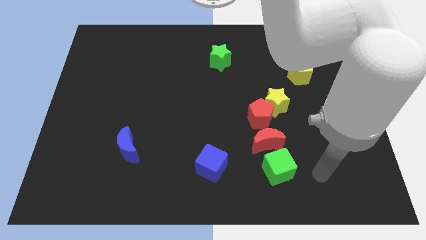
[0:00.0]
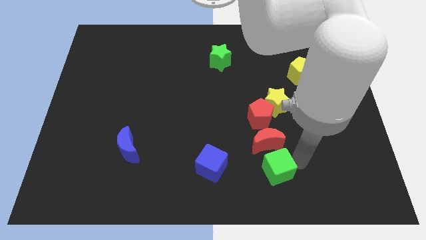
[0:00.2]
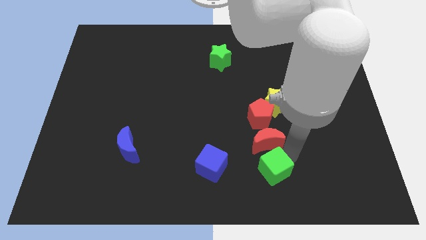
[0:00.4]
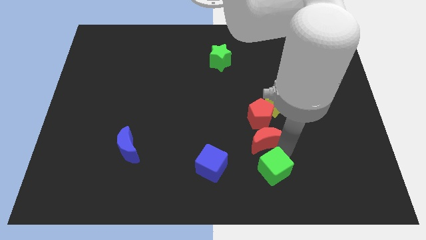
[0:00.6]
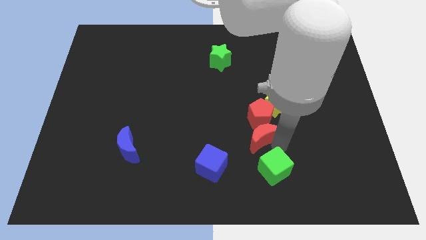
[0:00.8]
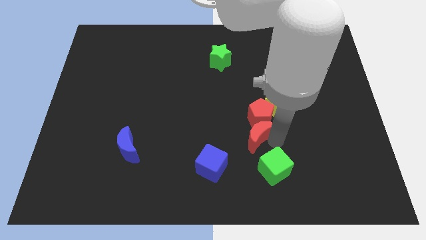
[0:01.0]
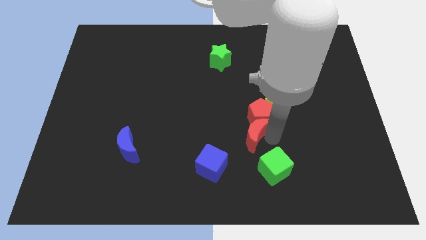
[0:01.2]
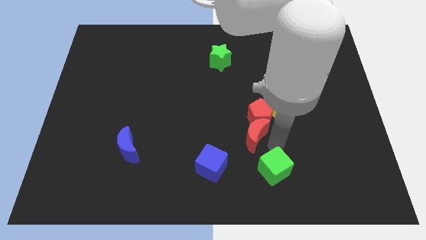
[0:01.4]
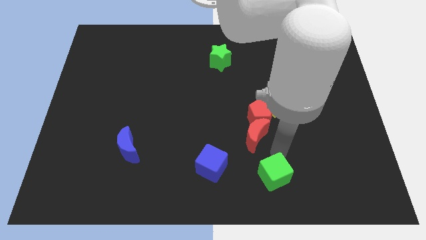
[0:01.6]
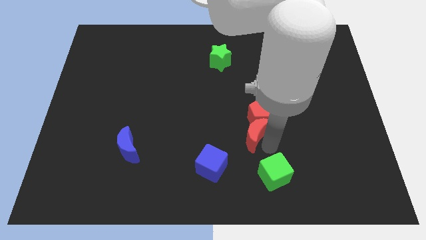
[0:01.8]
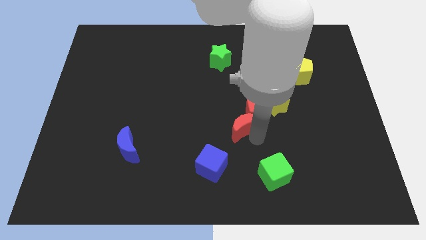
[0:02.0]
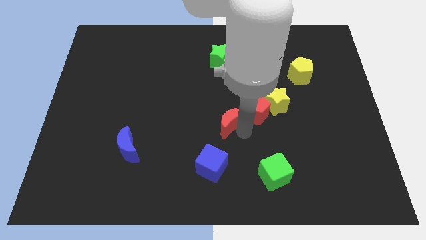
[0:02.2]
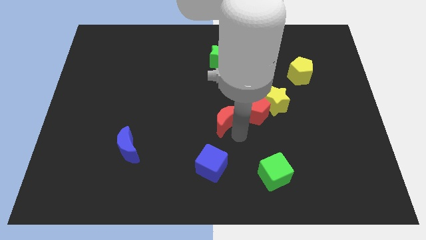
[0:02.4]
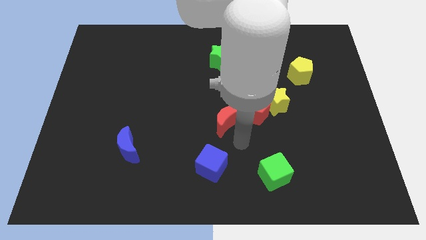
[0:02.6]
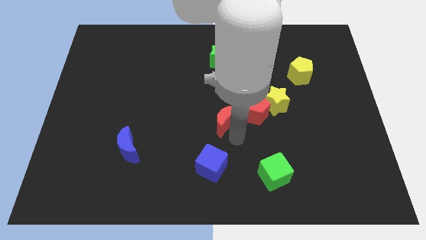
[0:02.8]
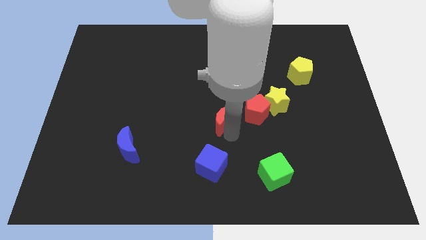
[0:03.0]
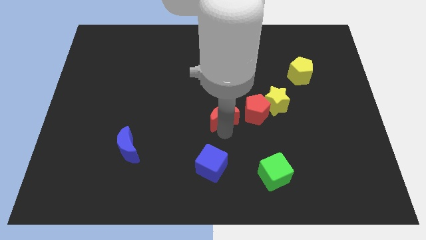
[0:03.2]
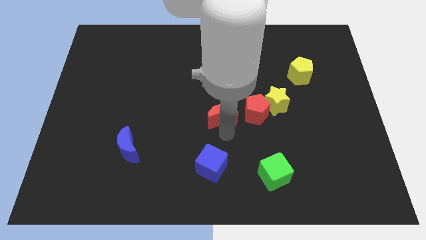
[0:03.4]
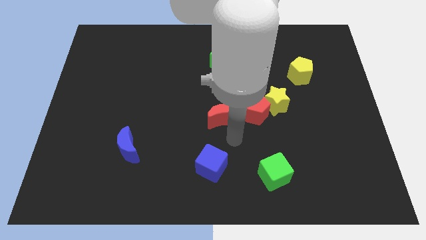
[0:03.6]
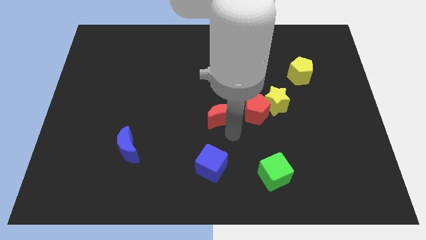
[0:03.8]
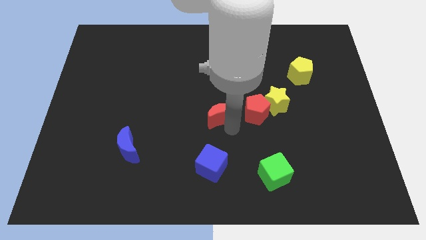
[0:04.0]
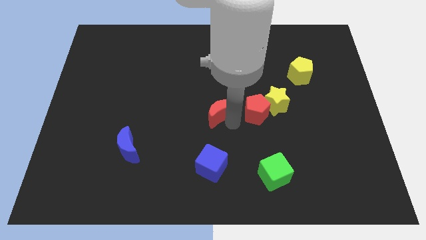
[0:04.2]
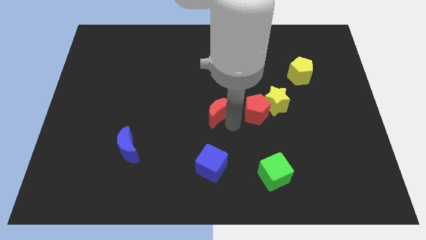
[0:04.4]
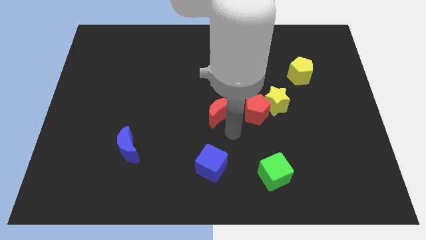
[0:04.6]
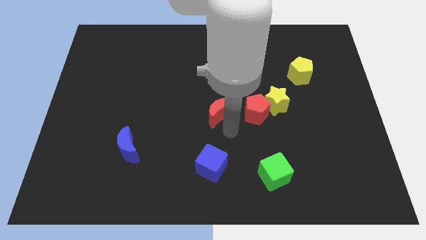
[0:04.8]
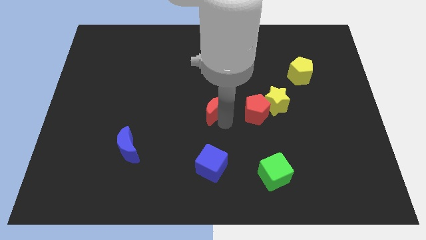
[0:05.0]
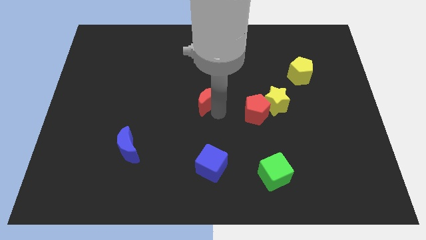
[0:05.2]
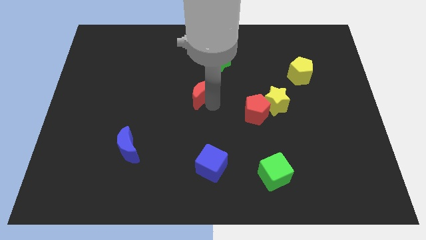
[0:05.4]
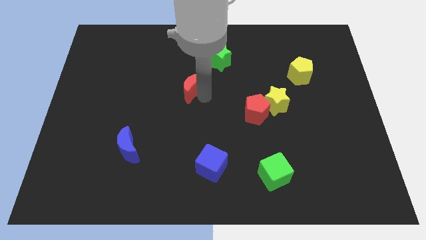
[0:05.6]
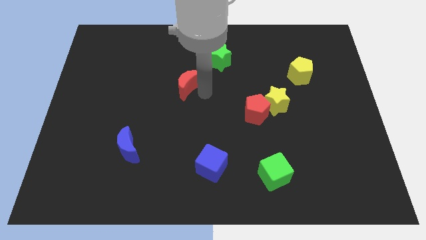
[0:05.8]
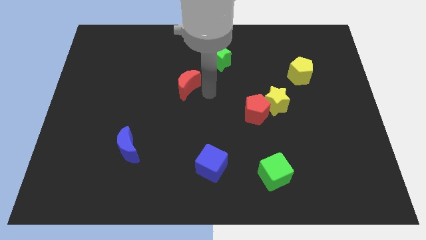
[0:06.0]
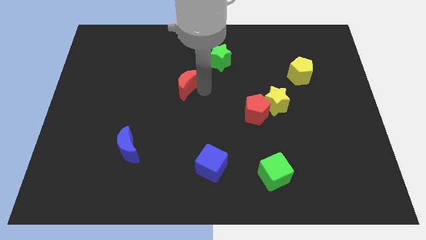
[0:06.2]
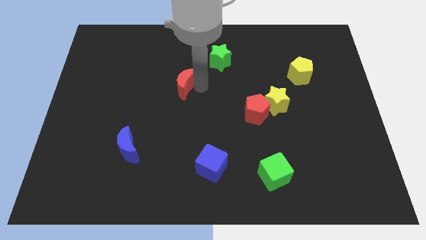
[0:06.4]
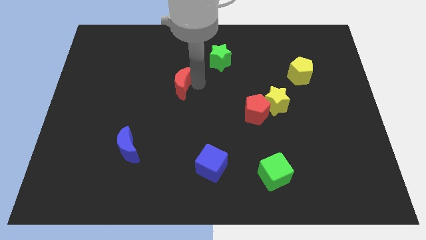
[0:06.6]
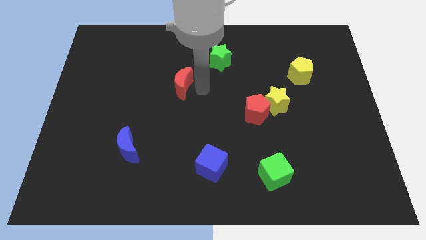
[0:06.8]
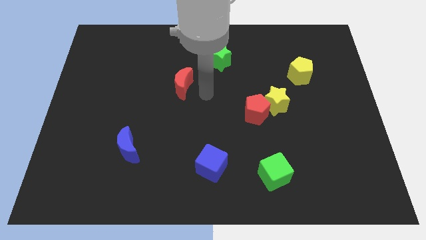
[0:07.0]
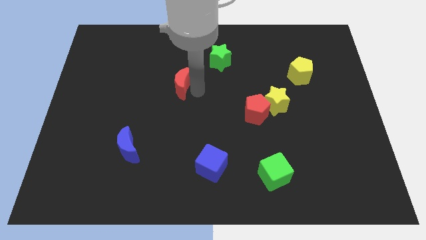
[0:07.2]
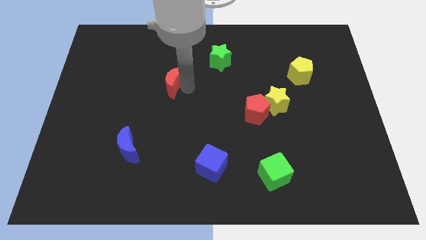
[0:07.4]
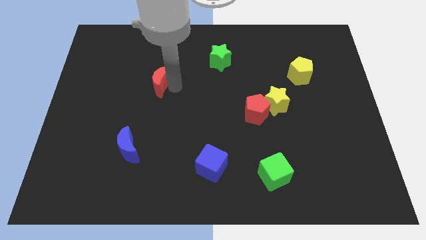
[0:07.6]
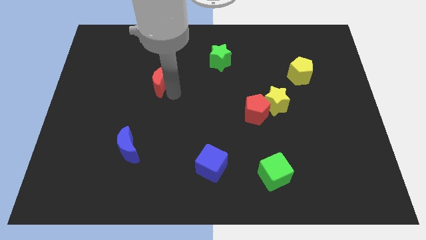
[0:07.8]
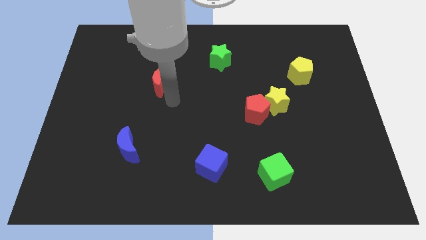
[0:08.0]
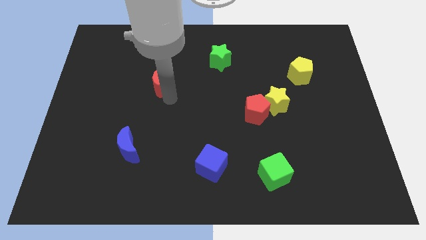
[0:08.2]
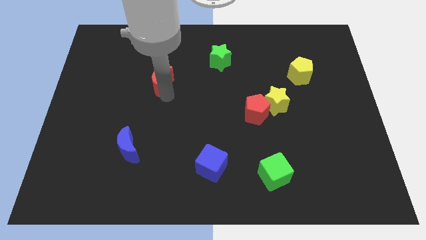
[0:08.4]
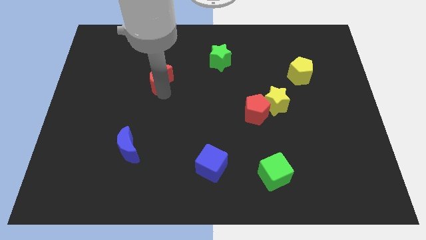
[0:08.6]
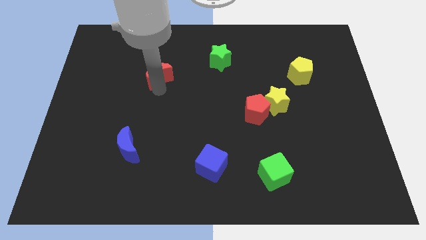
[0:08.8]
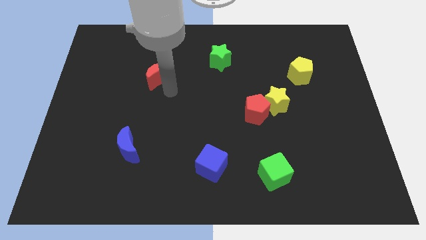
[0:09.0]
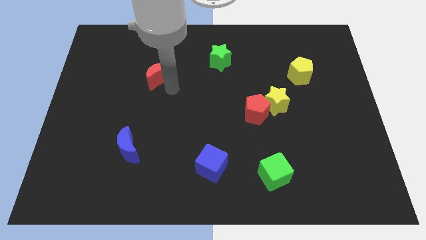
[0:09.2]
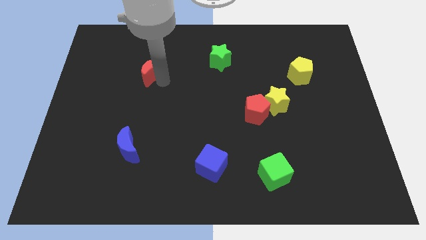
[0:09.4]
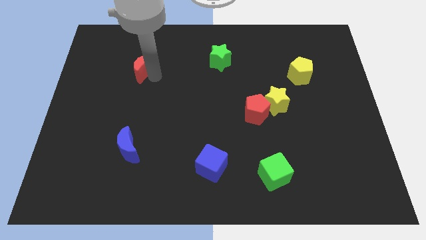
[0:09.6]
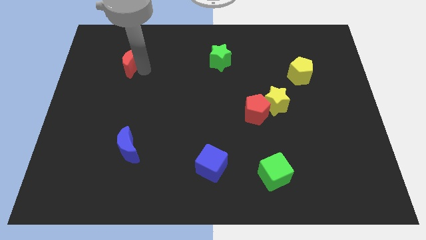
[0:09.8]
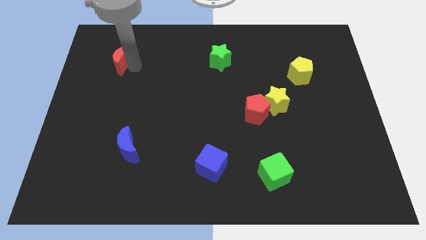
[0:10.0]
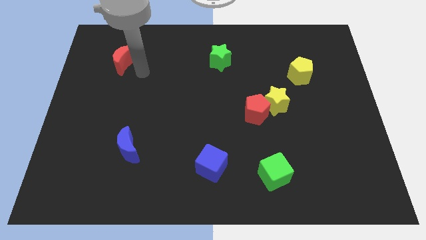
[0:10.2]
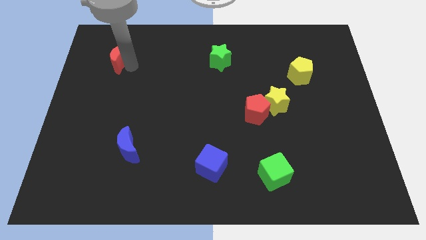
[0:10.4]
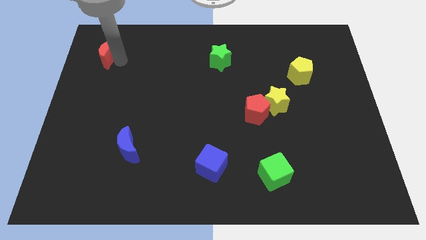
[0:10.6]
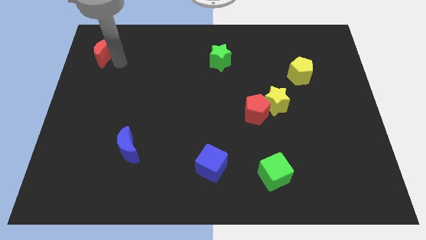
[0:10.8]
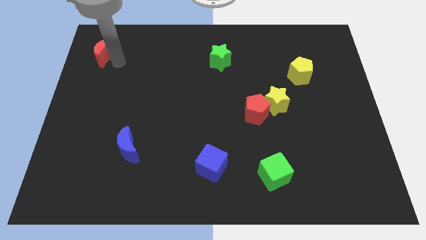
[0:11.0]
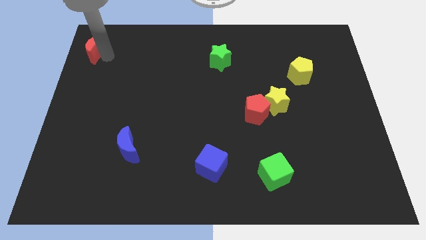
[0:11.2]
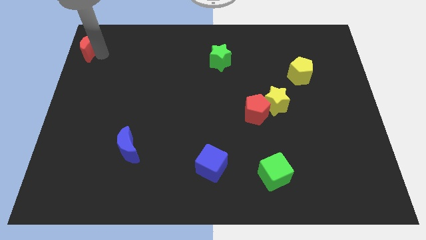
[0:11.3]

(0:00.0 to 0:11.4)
put the red moon to the top left of the board

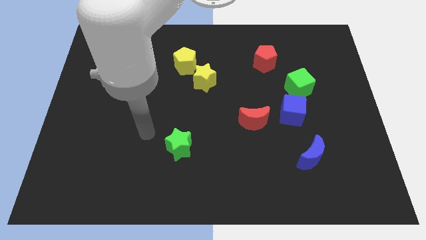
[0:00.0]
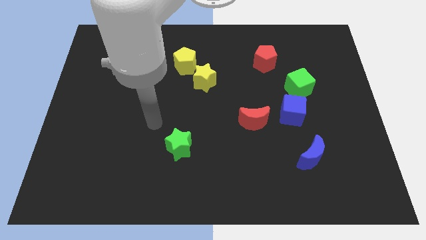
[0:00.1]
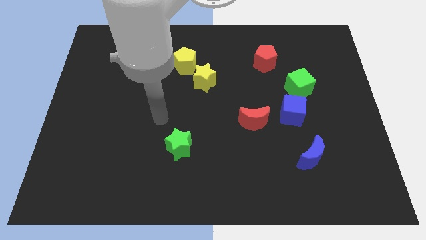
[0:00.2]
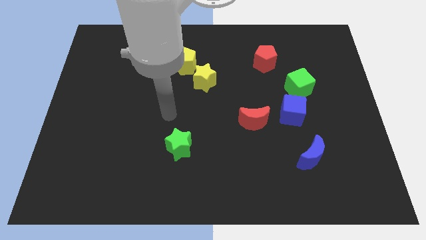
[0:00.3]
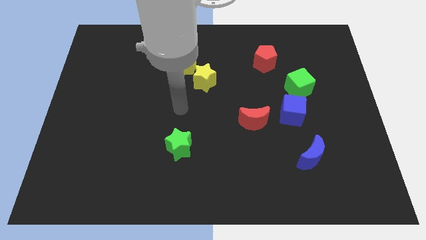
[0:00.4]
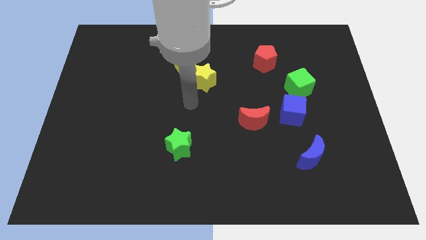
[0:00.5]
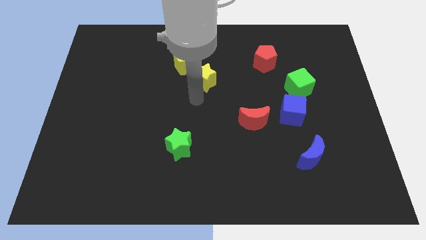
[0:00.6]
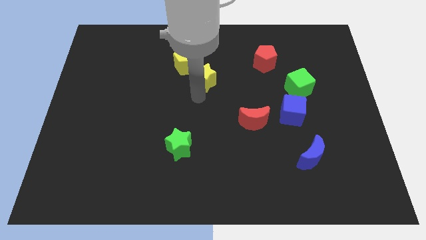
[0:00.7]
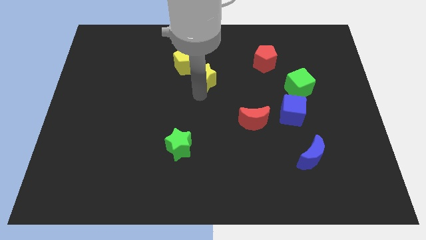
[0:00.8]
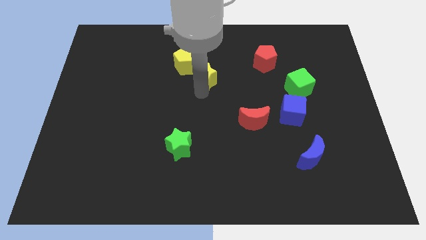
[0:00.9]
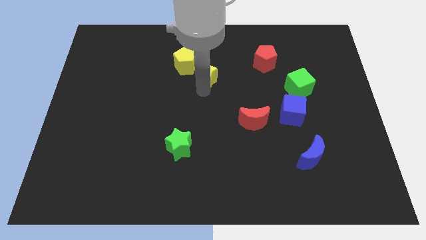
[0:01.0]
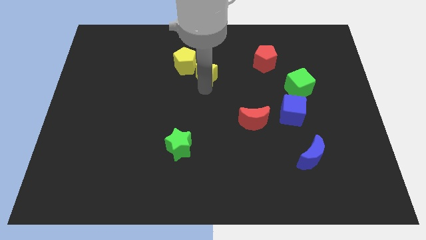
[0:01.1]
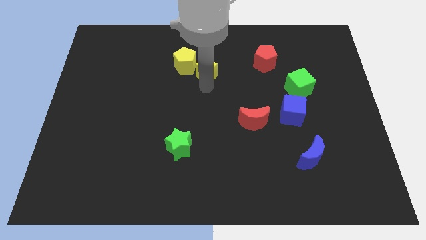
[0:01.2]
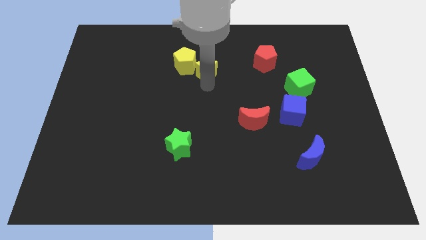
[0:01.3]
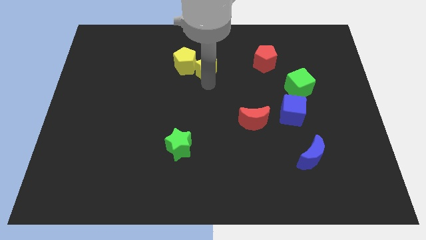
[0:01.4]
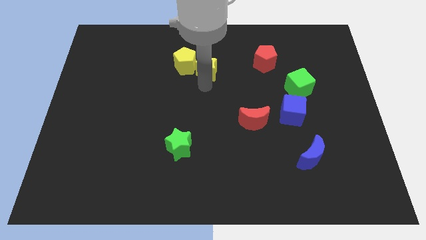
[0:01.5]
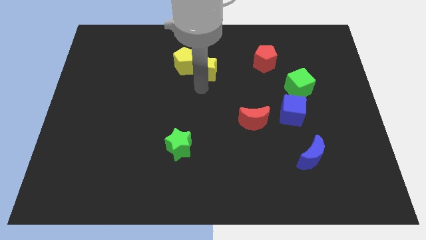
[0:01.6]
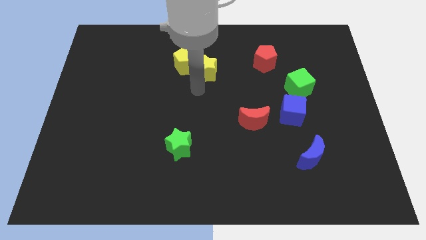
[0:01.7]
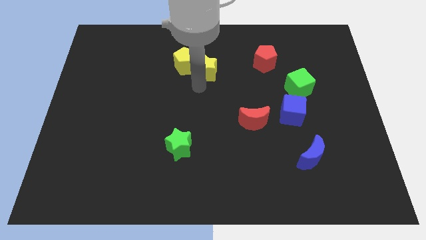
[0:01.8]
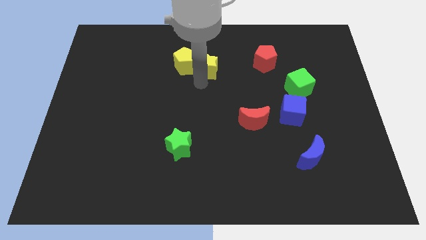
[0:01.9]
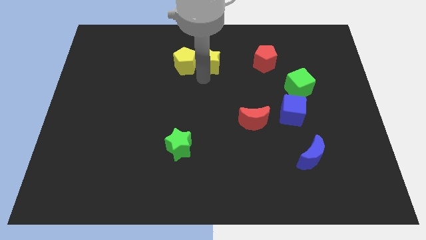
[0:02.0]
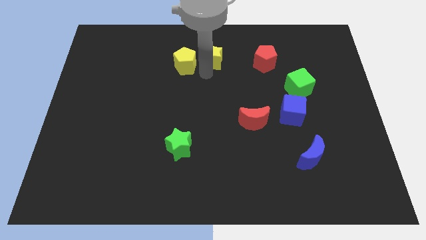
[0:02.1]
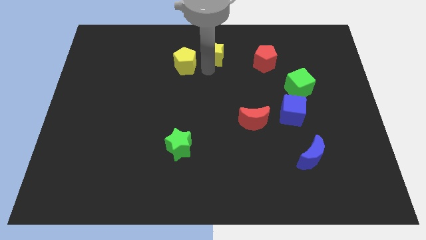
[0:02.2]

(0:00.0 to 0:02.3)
move the yellow star to the top

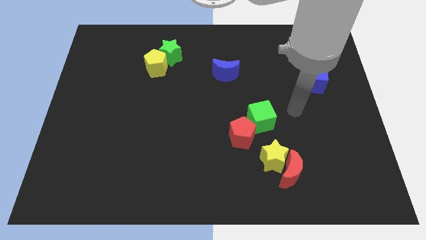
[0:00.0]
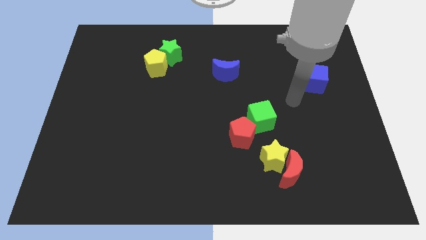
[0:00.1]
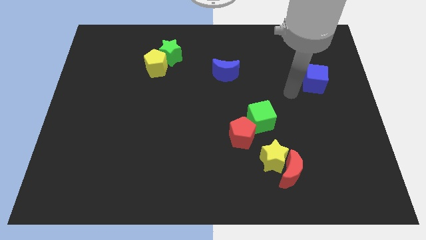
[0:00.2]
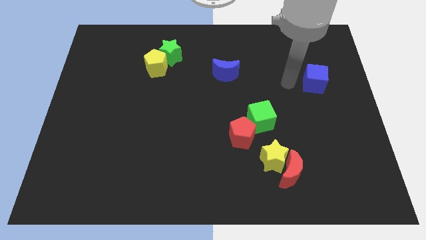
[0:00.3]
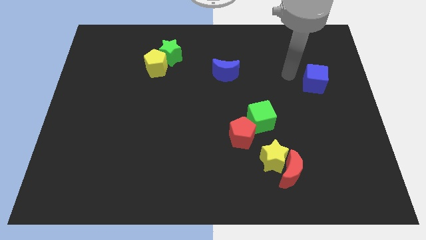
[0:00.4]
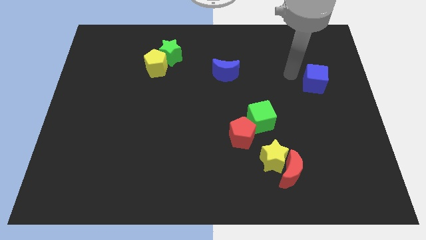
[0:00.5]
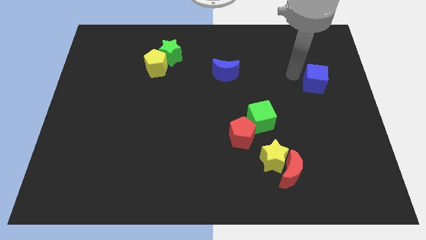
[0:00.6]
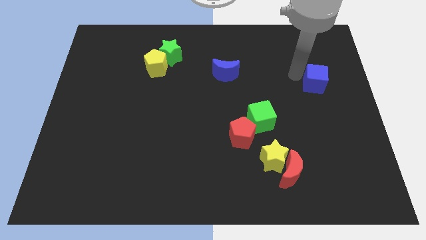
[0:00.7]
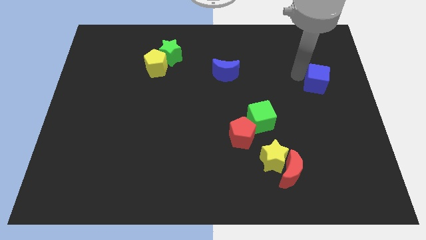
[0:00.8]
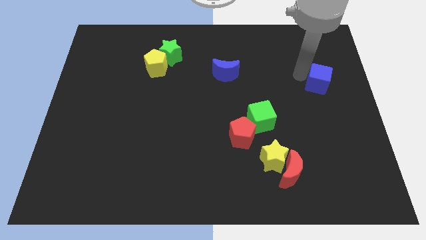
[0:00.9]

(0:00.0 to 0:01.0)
move the blue cube to the right side of the board
